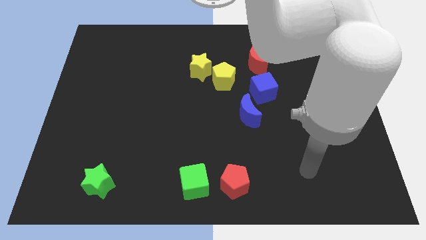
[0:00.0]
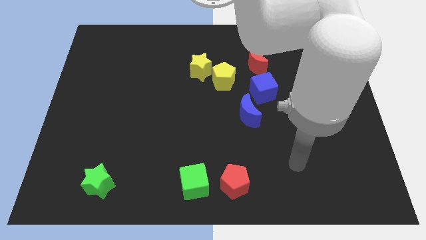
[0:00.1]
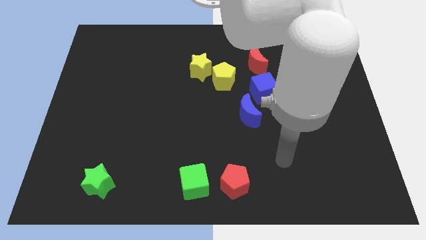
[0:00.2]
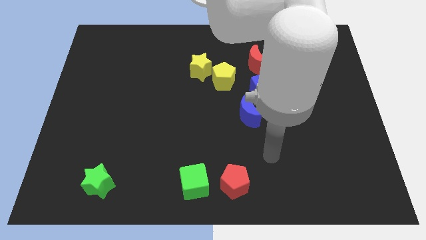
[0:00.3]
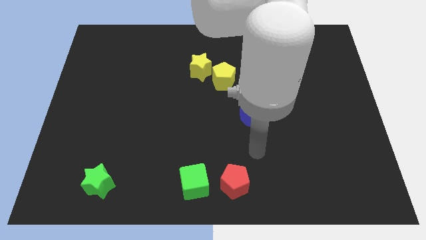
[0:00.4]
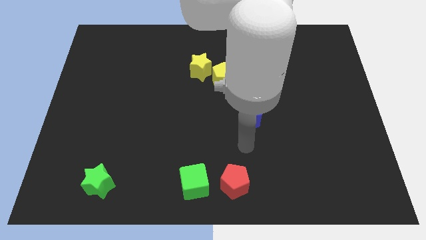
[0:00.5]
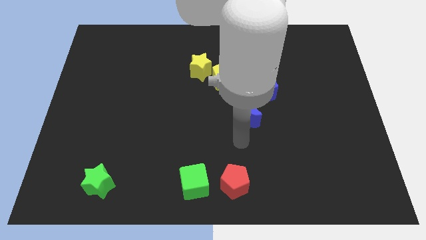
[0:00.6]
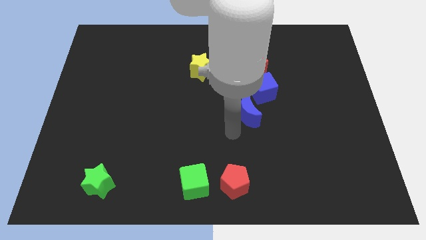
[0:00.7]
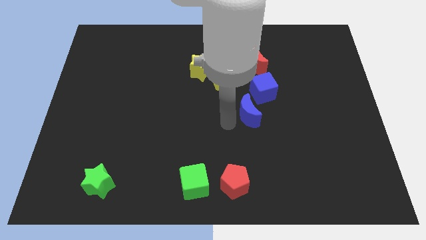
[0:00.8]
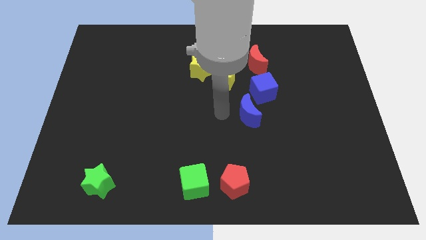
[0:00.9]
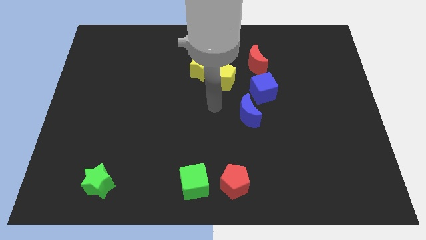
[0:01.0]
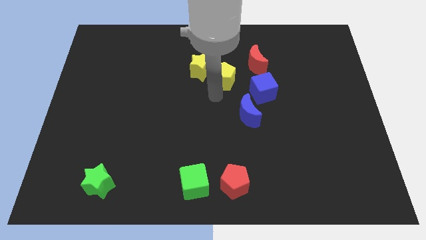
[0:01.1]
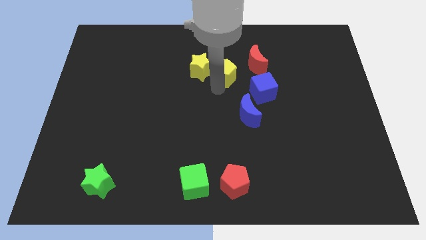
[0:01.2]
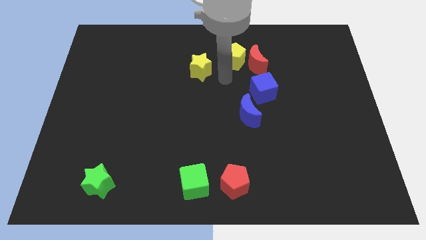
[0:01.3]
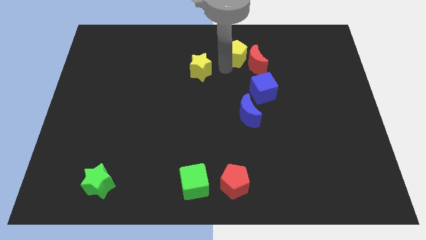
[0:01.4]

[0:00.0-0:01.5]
move the yellow star away from the yellow pentagon

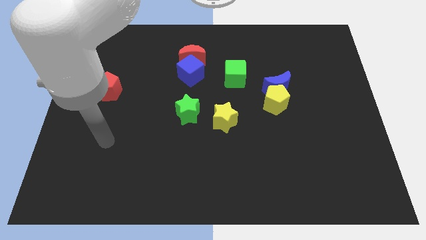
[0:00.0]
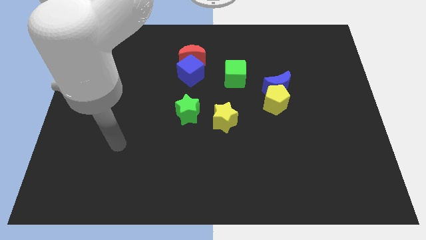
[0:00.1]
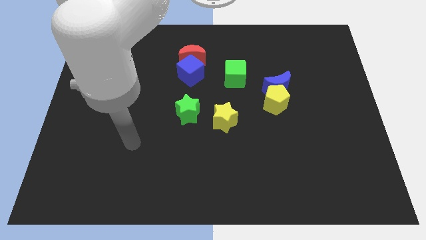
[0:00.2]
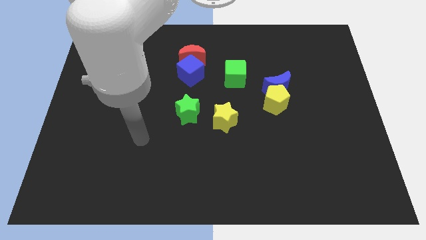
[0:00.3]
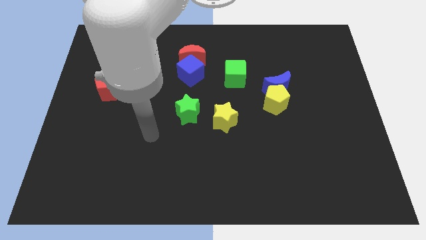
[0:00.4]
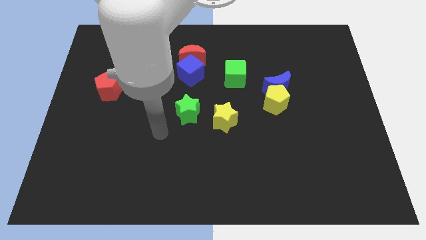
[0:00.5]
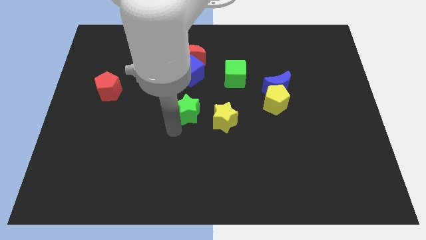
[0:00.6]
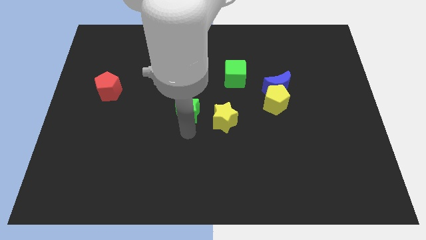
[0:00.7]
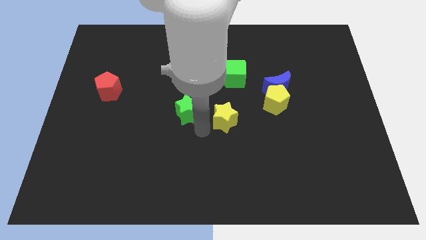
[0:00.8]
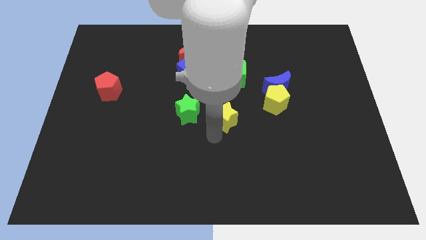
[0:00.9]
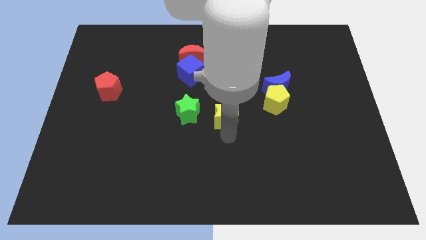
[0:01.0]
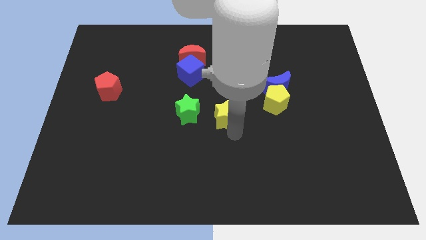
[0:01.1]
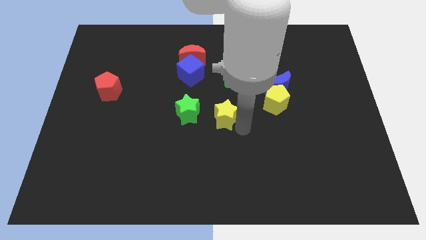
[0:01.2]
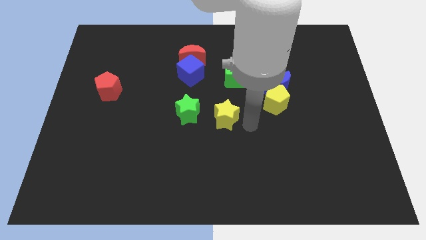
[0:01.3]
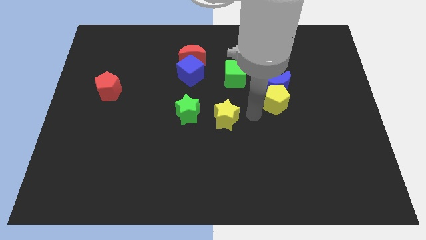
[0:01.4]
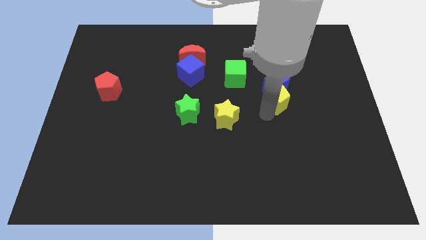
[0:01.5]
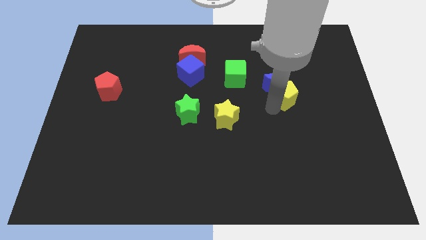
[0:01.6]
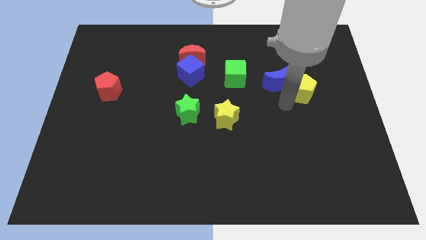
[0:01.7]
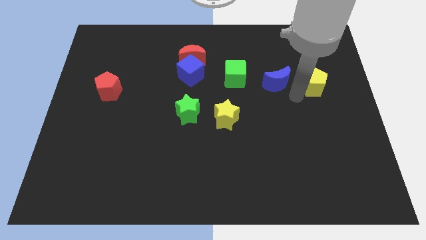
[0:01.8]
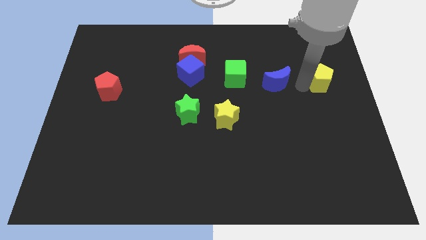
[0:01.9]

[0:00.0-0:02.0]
move the blue moon away from the yellow pentagon

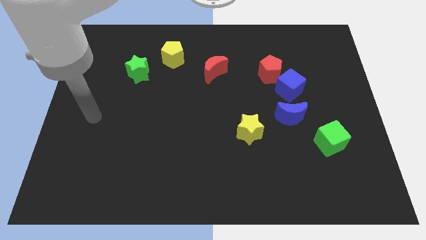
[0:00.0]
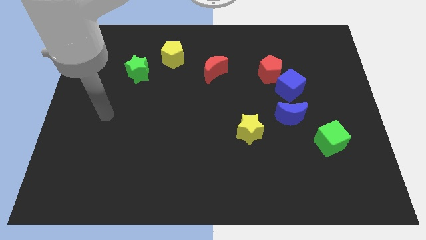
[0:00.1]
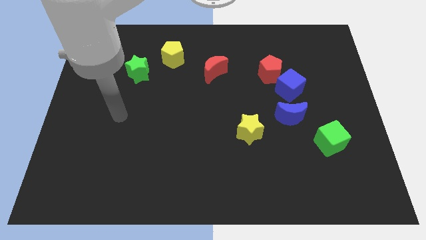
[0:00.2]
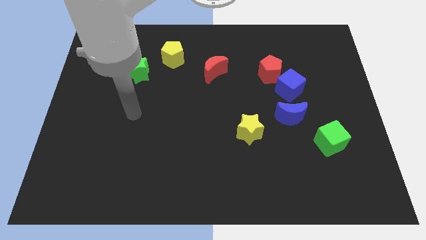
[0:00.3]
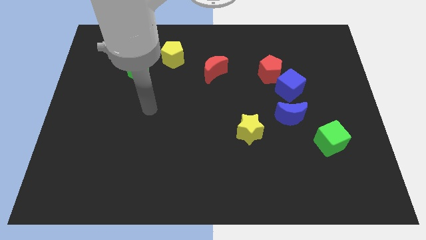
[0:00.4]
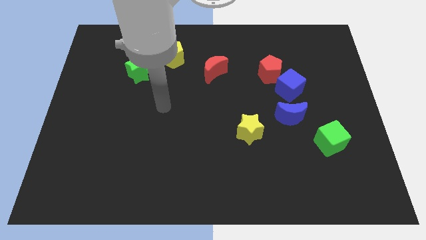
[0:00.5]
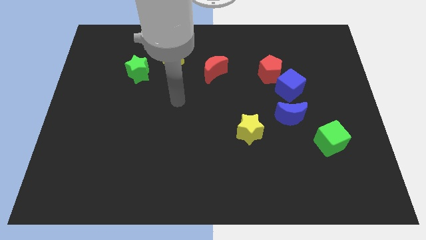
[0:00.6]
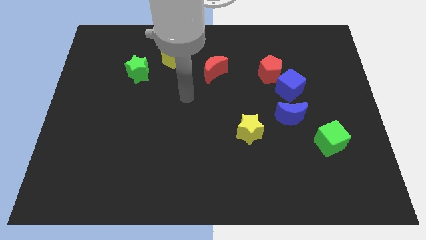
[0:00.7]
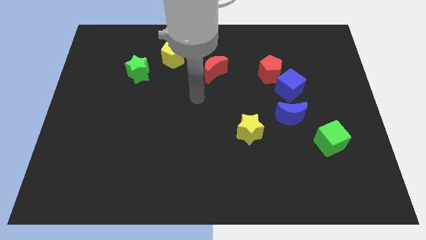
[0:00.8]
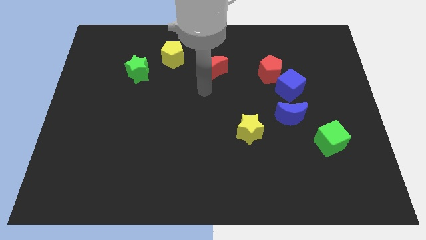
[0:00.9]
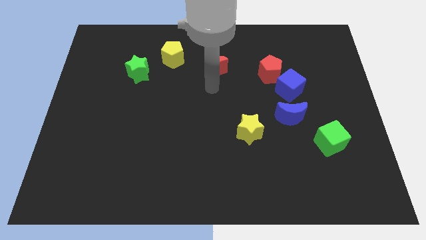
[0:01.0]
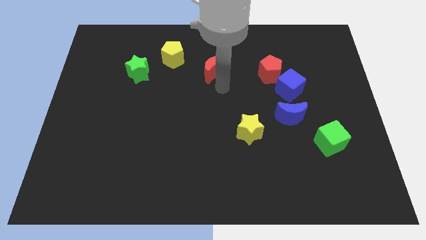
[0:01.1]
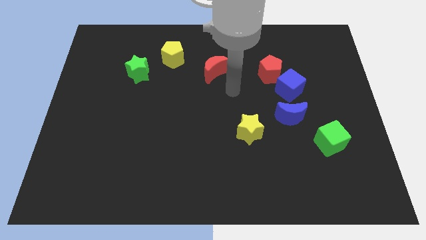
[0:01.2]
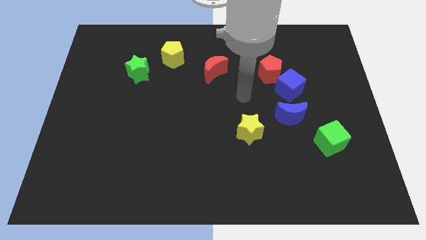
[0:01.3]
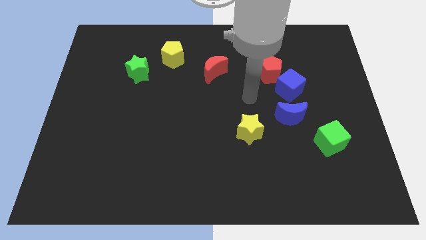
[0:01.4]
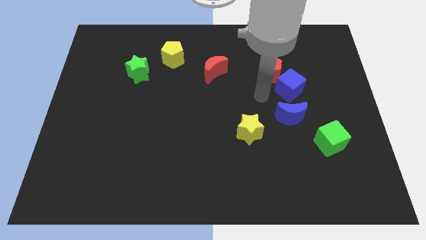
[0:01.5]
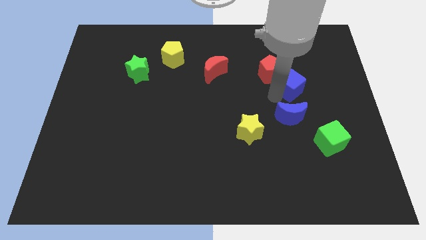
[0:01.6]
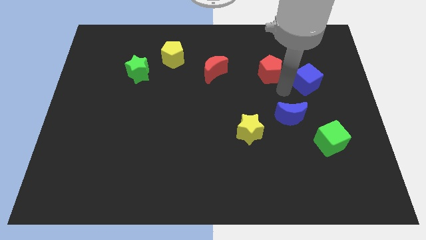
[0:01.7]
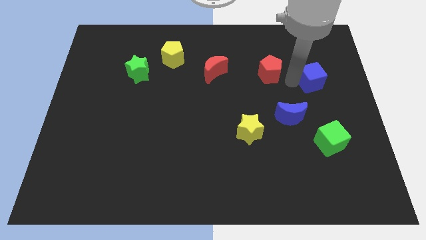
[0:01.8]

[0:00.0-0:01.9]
separate the red pentagon from the blue cube

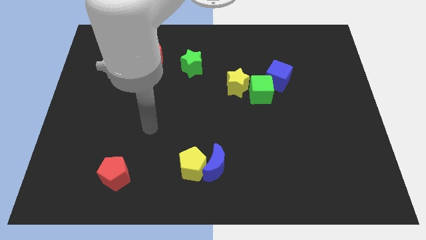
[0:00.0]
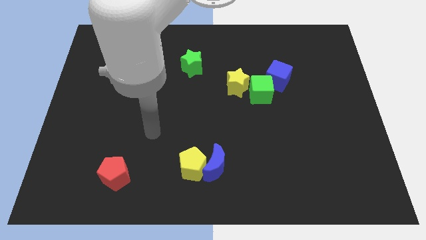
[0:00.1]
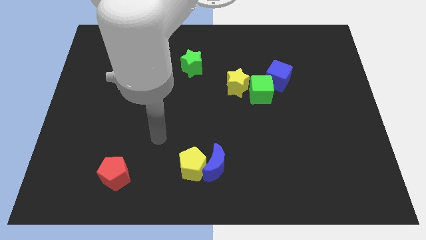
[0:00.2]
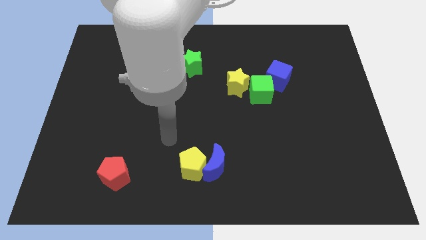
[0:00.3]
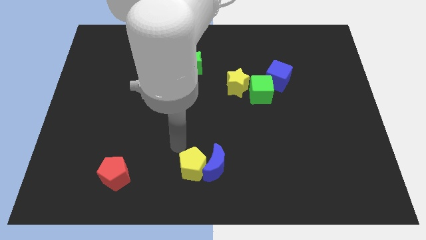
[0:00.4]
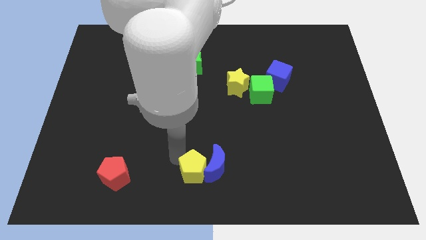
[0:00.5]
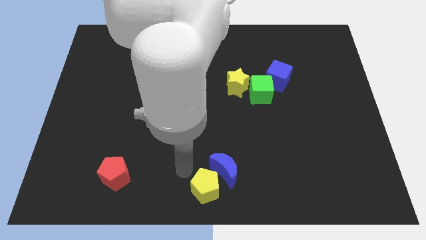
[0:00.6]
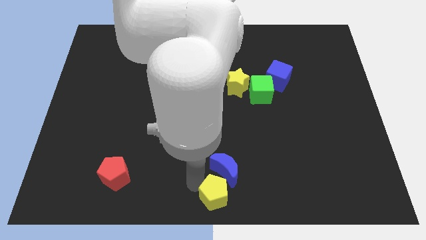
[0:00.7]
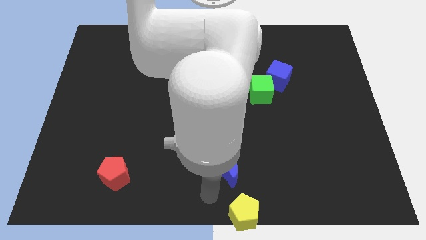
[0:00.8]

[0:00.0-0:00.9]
separate the blue moon from the yellow pentagon

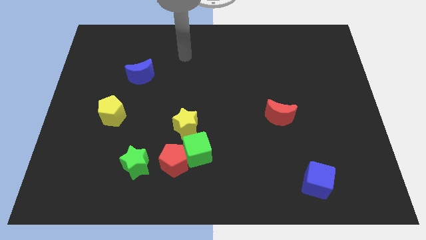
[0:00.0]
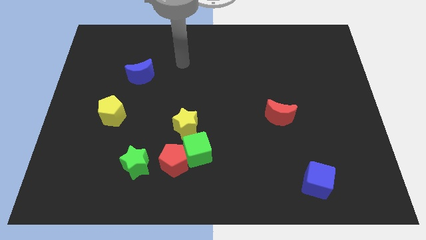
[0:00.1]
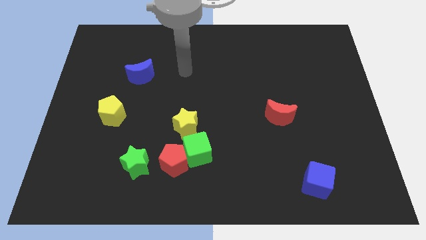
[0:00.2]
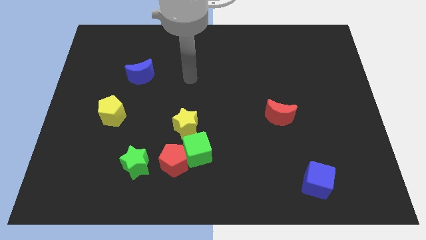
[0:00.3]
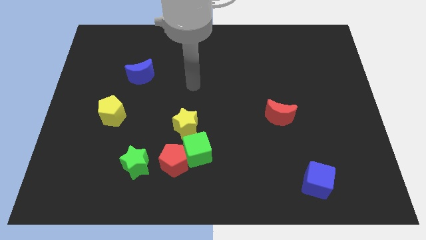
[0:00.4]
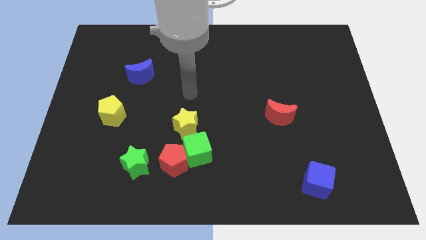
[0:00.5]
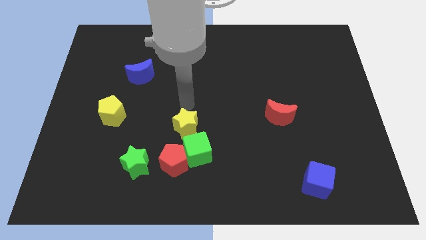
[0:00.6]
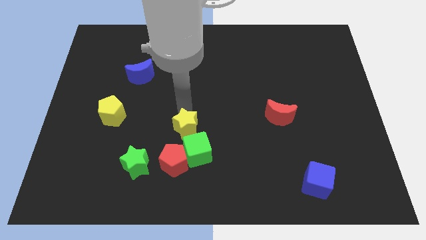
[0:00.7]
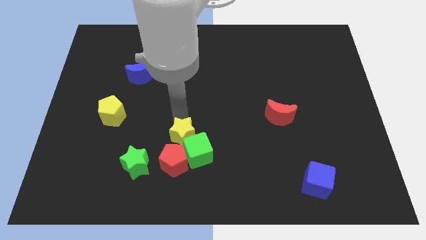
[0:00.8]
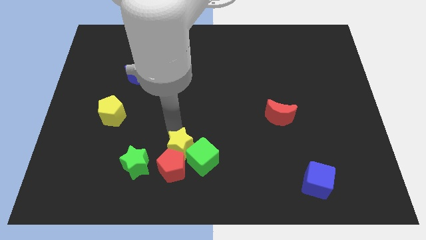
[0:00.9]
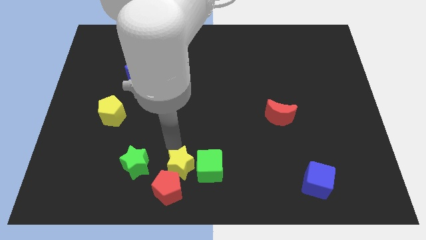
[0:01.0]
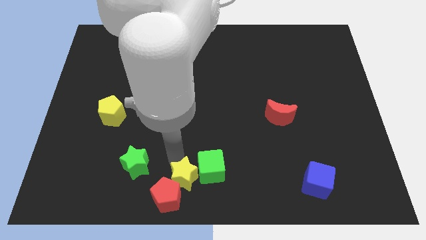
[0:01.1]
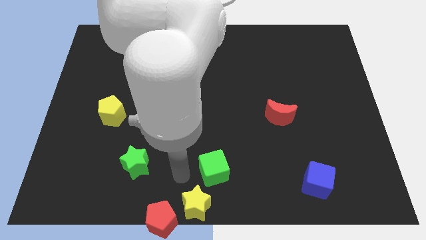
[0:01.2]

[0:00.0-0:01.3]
move the green cube away from the red pentagon and yellow star

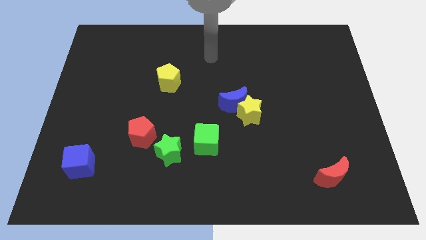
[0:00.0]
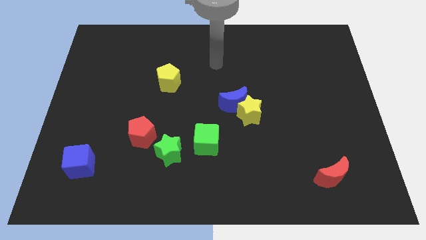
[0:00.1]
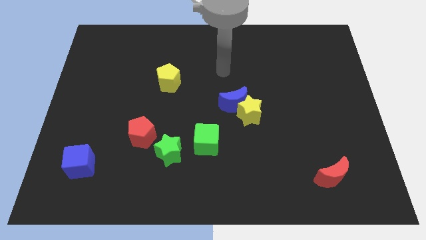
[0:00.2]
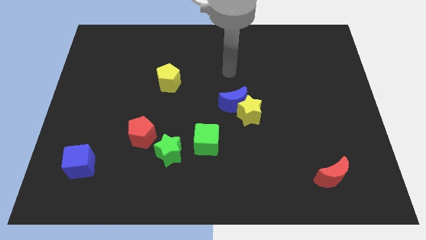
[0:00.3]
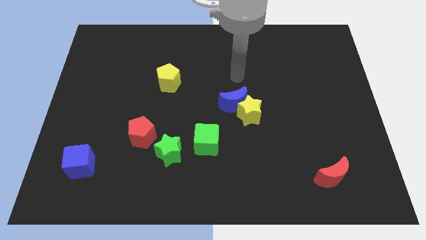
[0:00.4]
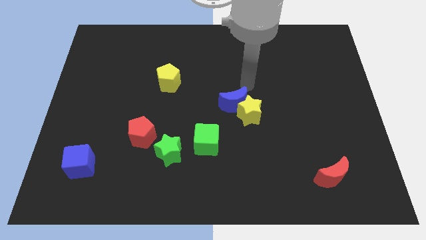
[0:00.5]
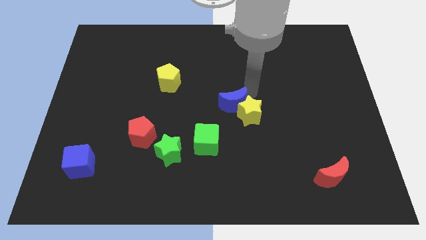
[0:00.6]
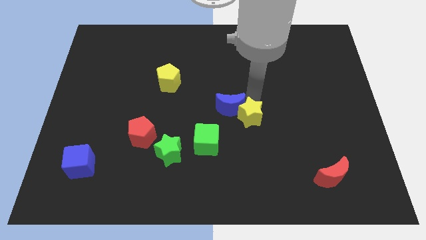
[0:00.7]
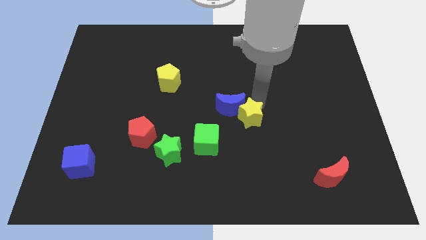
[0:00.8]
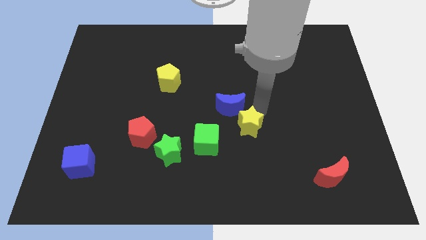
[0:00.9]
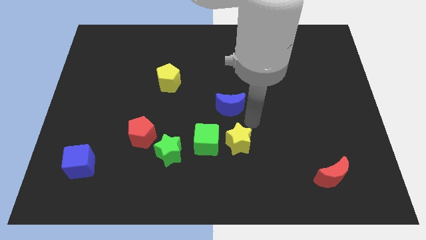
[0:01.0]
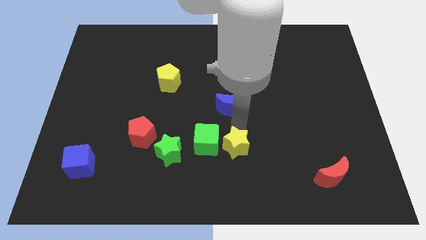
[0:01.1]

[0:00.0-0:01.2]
separate the blue moon from the yellow star

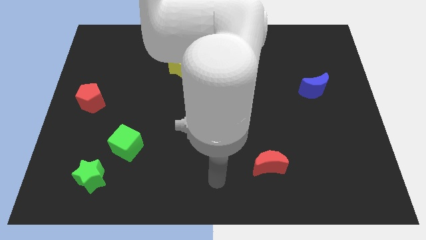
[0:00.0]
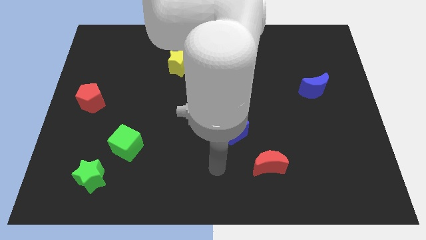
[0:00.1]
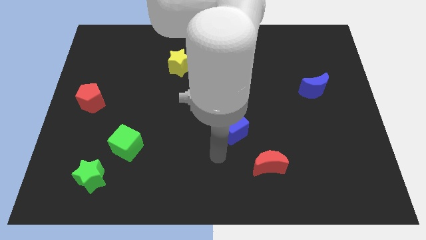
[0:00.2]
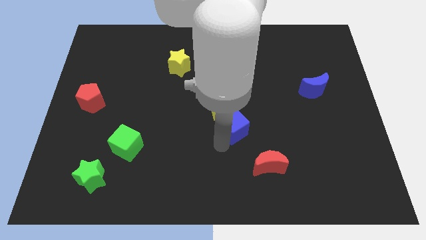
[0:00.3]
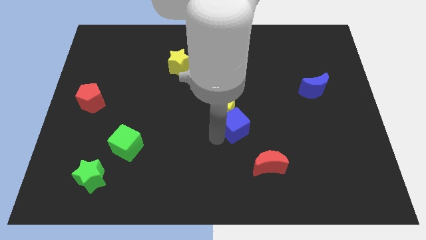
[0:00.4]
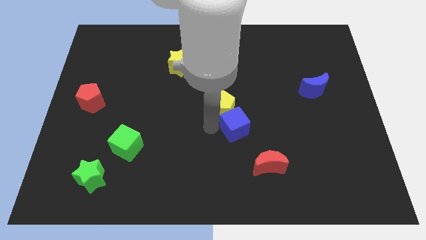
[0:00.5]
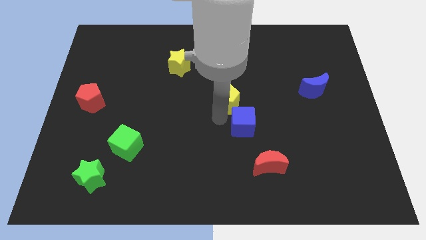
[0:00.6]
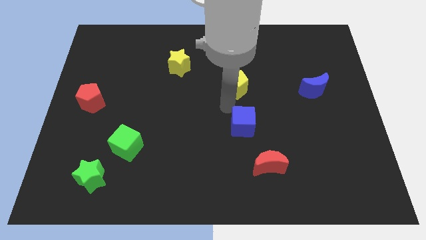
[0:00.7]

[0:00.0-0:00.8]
pull the blue cube apart from the yellow pentagon
